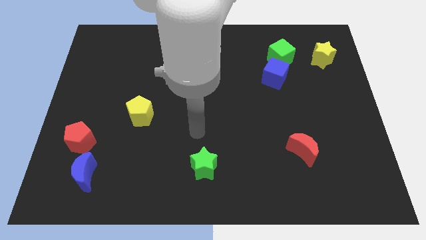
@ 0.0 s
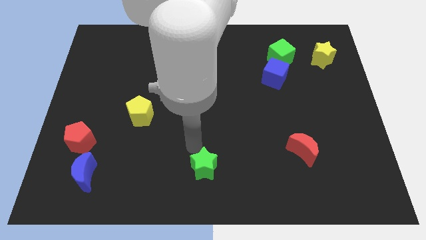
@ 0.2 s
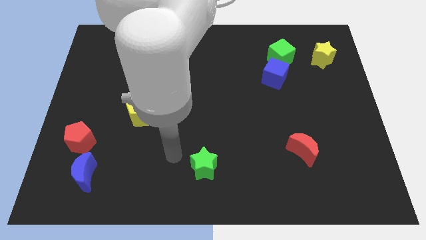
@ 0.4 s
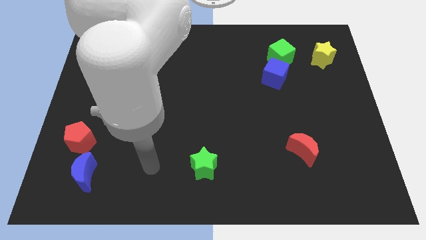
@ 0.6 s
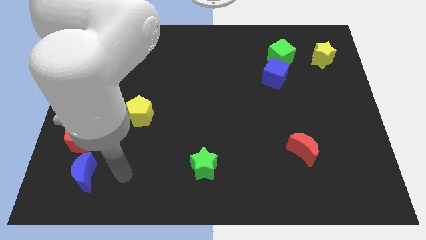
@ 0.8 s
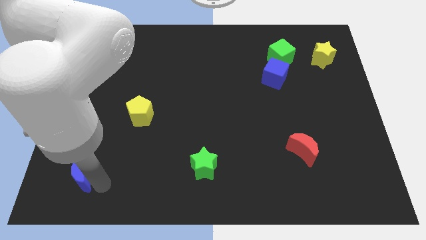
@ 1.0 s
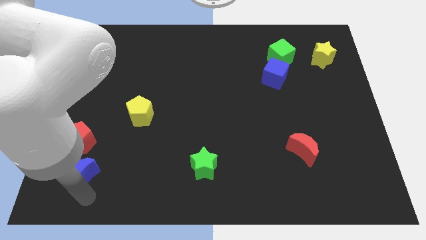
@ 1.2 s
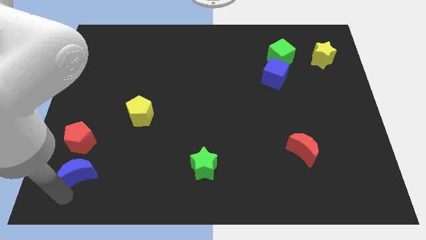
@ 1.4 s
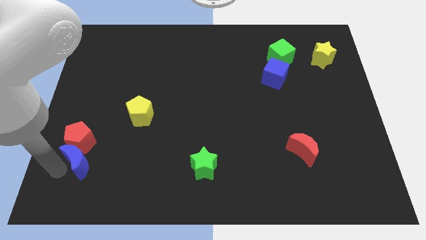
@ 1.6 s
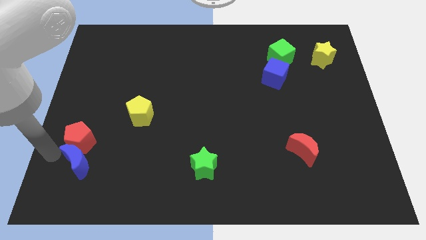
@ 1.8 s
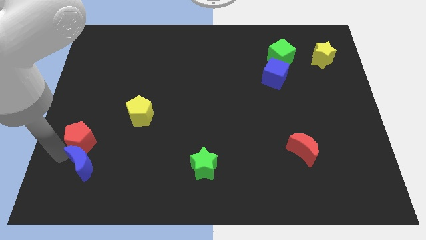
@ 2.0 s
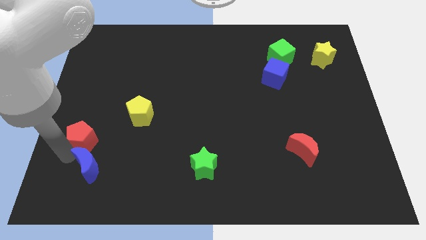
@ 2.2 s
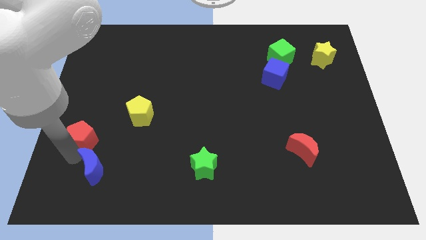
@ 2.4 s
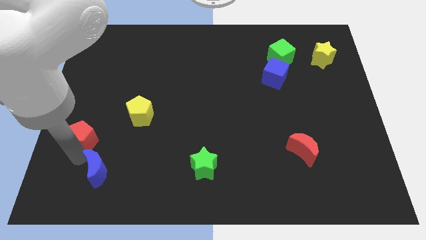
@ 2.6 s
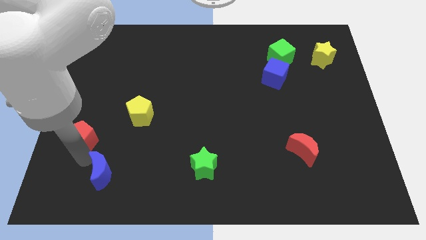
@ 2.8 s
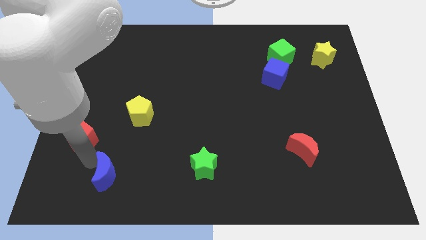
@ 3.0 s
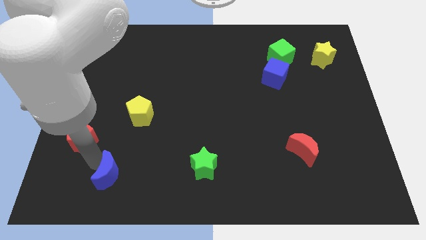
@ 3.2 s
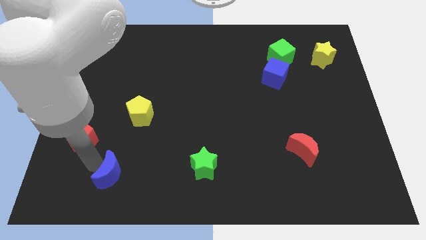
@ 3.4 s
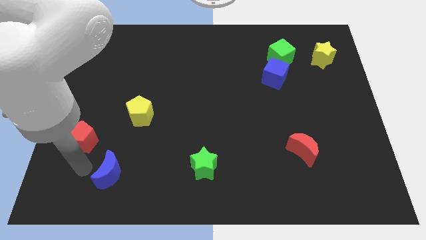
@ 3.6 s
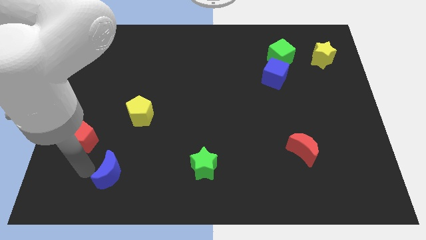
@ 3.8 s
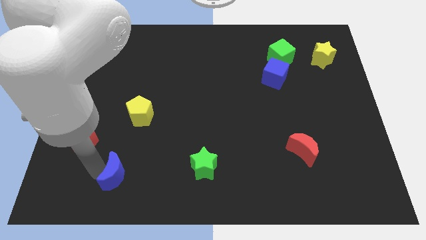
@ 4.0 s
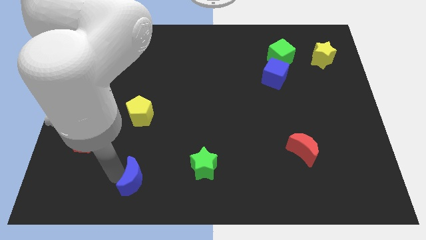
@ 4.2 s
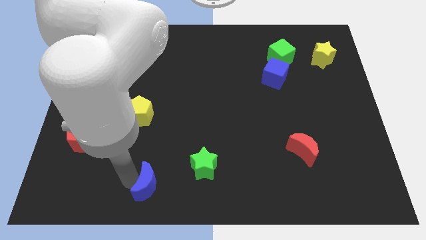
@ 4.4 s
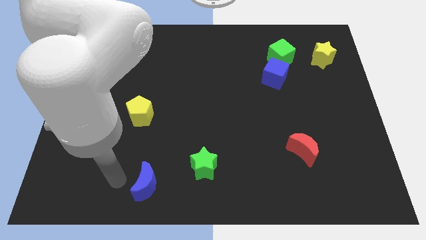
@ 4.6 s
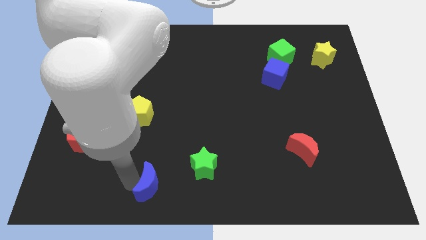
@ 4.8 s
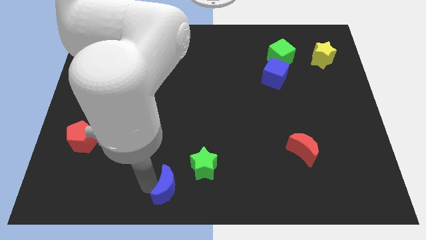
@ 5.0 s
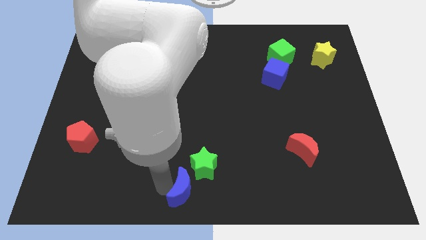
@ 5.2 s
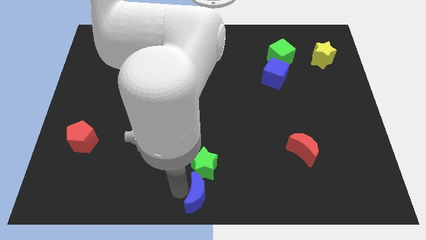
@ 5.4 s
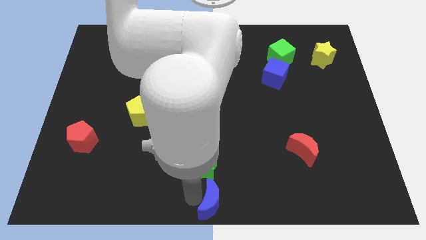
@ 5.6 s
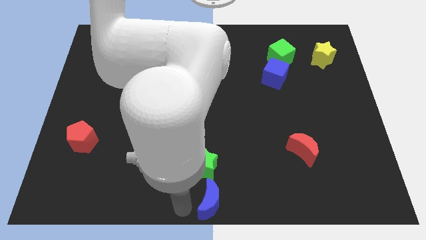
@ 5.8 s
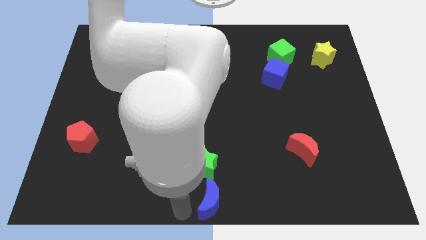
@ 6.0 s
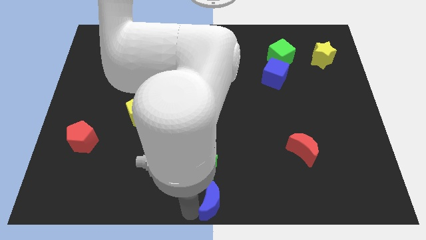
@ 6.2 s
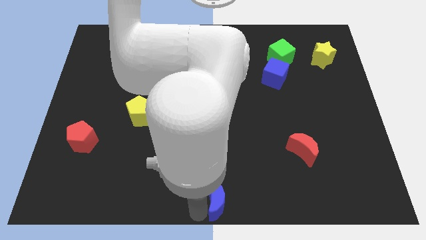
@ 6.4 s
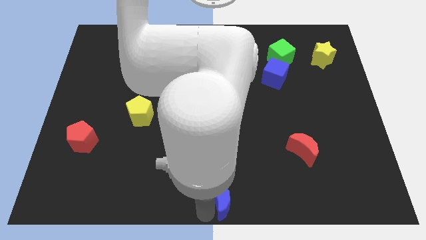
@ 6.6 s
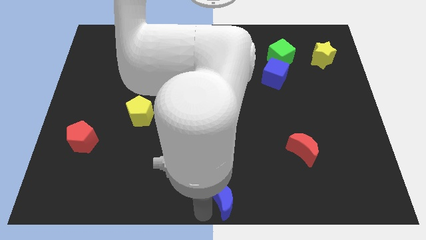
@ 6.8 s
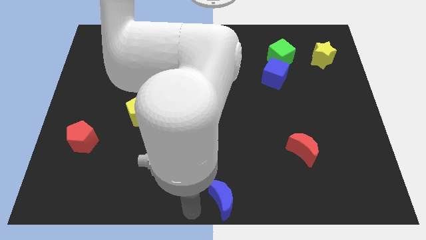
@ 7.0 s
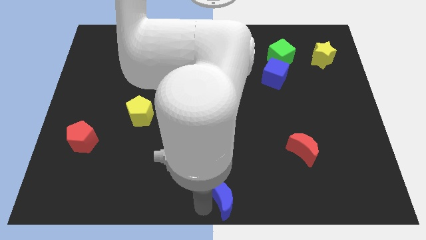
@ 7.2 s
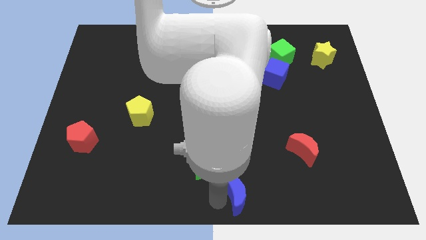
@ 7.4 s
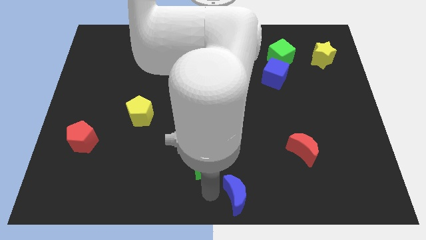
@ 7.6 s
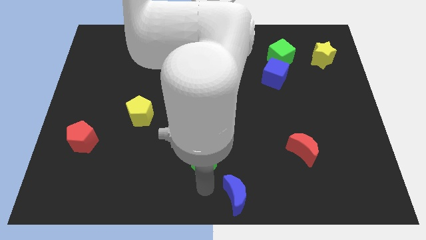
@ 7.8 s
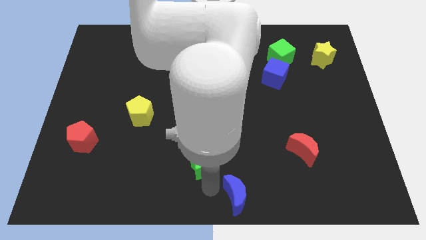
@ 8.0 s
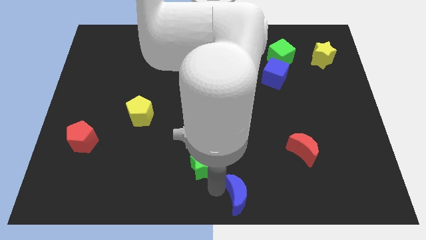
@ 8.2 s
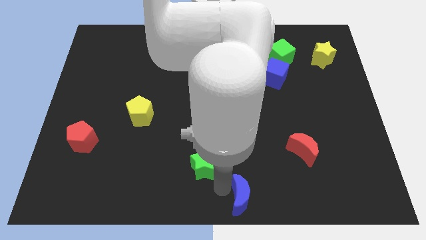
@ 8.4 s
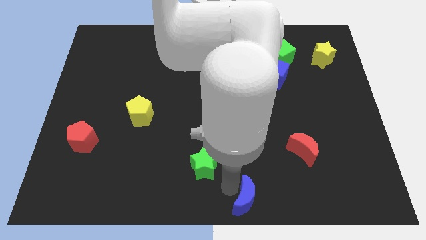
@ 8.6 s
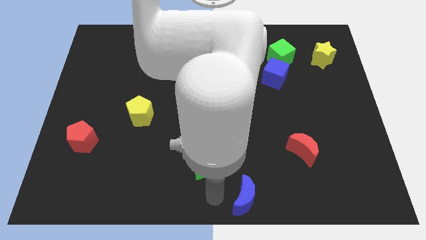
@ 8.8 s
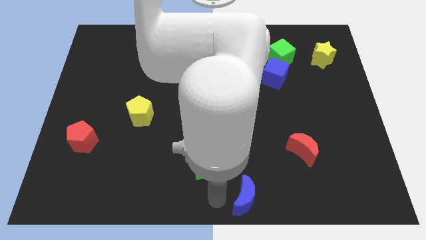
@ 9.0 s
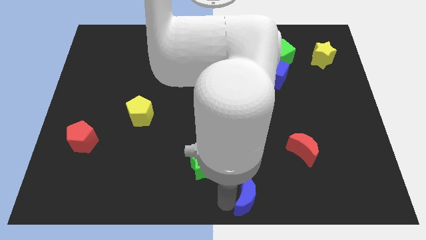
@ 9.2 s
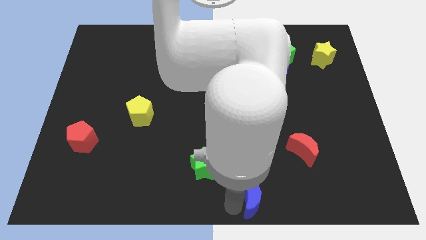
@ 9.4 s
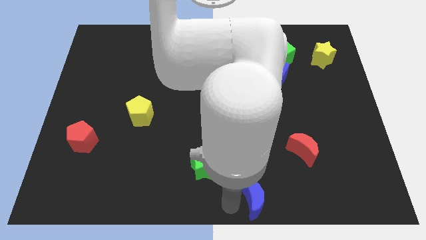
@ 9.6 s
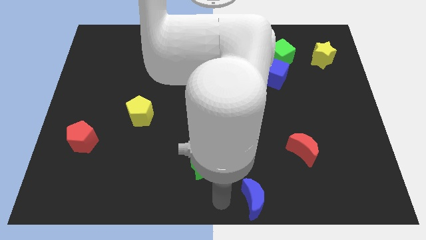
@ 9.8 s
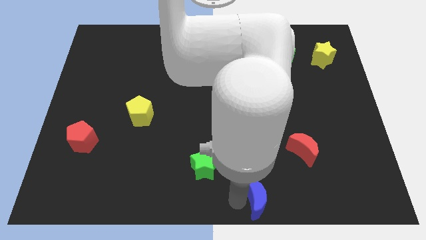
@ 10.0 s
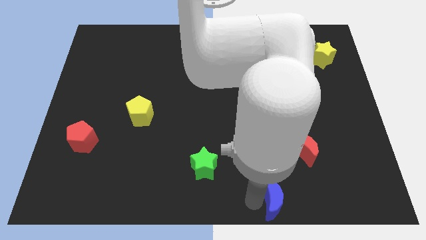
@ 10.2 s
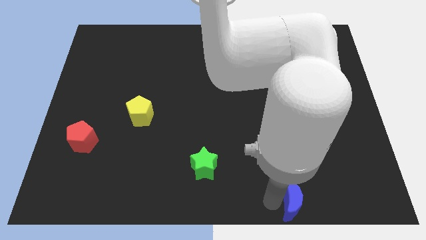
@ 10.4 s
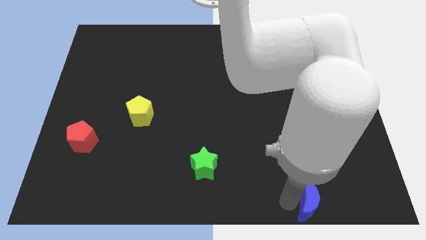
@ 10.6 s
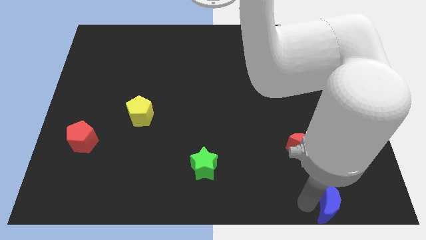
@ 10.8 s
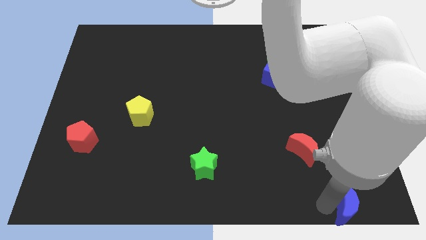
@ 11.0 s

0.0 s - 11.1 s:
move the blue moon to the bottom right corner
